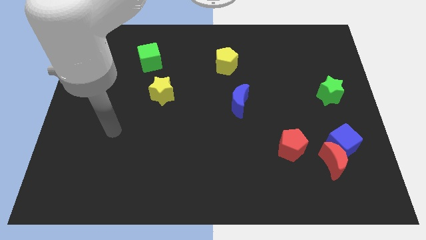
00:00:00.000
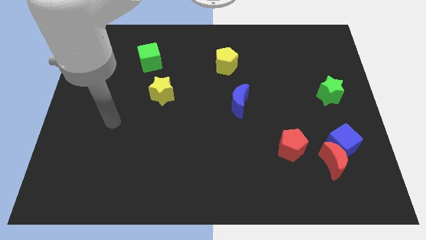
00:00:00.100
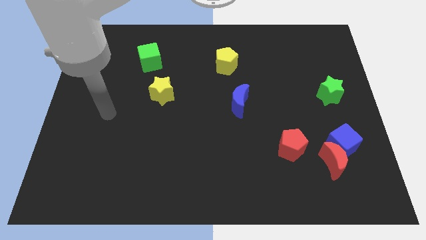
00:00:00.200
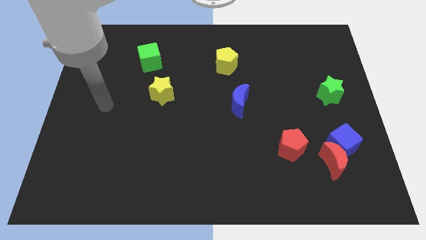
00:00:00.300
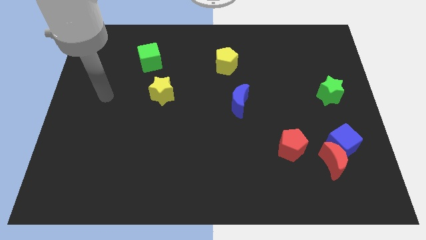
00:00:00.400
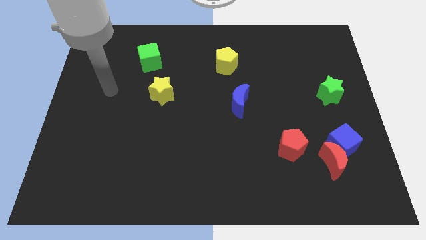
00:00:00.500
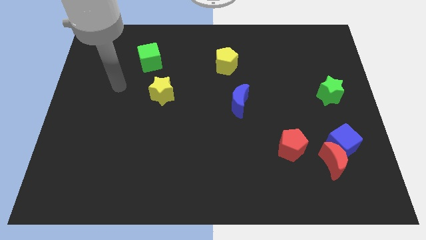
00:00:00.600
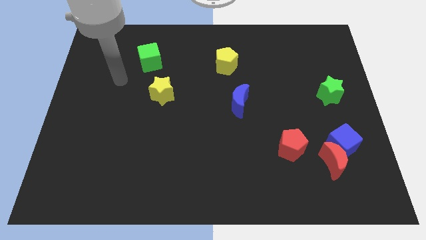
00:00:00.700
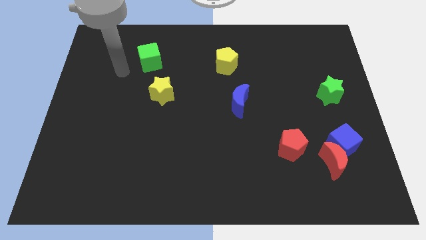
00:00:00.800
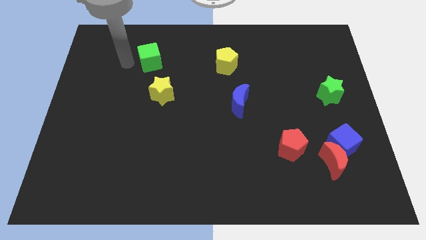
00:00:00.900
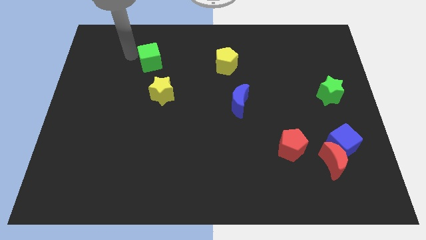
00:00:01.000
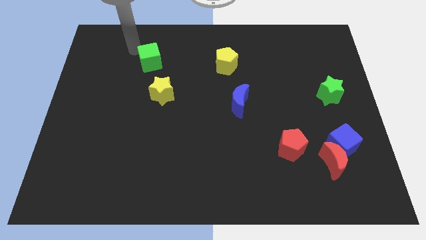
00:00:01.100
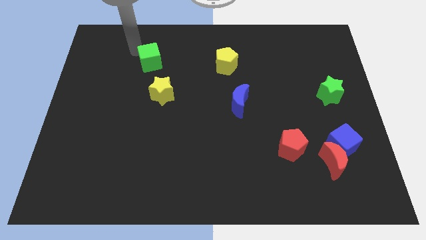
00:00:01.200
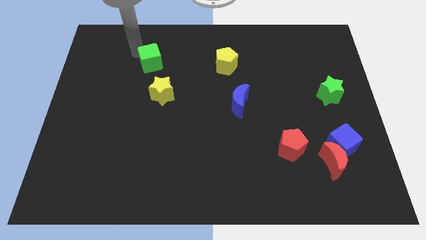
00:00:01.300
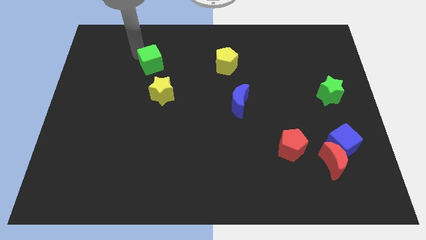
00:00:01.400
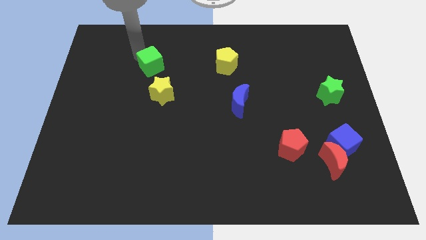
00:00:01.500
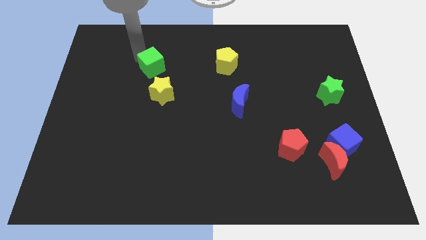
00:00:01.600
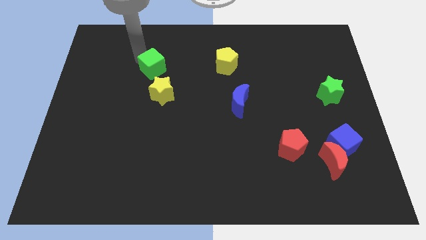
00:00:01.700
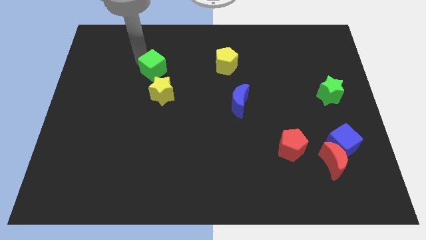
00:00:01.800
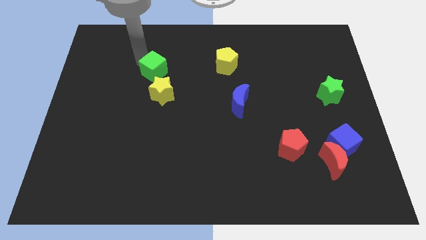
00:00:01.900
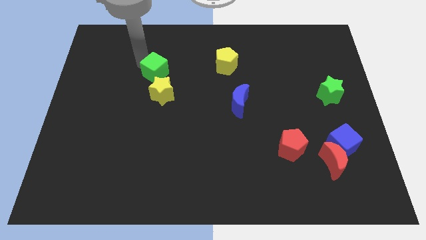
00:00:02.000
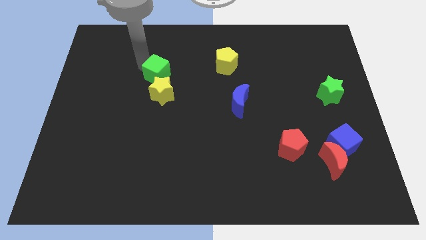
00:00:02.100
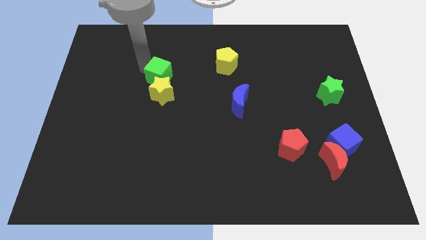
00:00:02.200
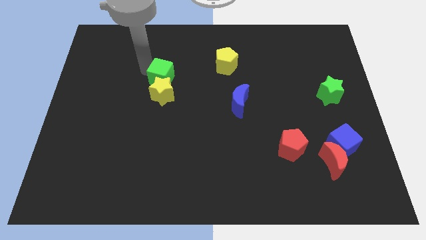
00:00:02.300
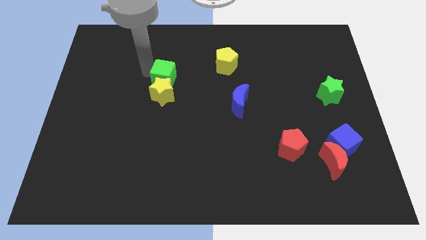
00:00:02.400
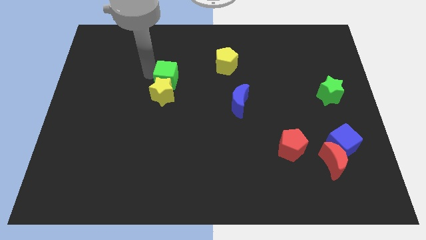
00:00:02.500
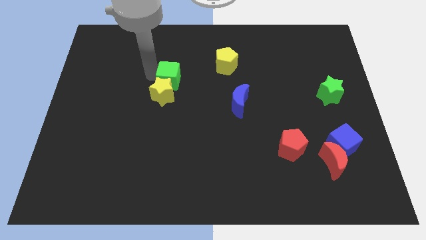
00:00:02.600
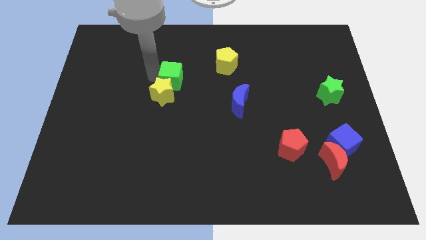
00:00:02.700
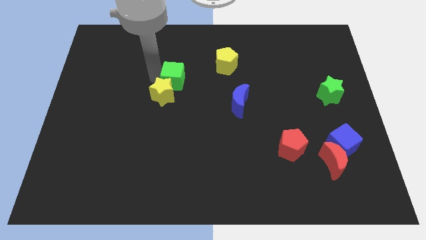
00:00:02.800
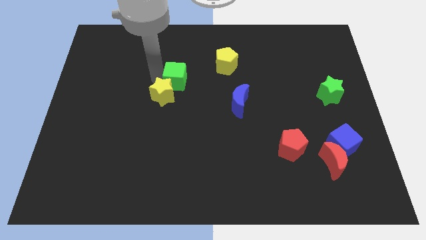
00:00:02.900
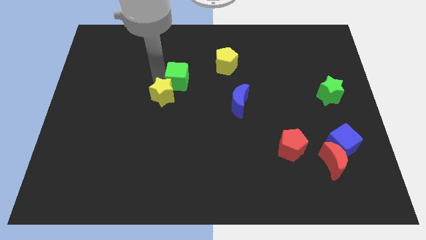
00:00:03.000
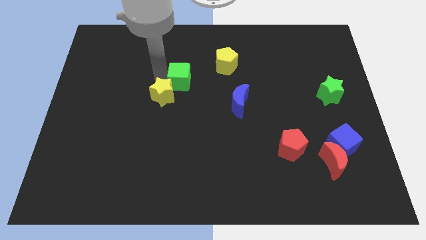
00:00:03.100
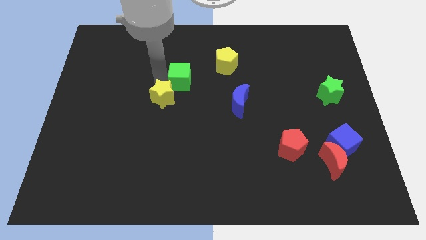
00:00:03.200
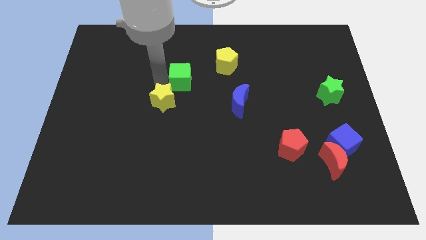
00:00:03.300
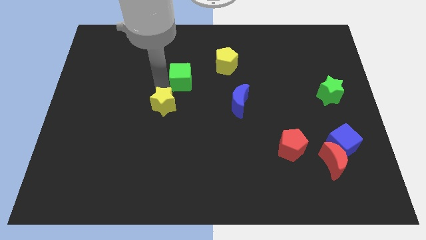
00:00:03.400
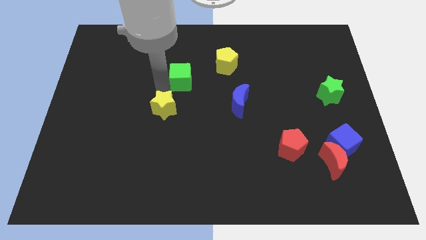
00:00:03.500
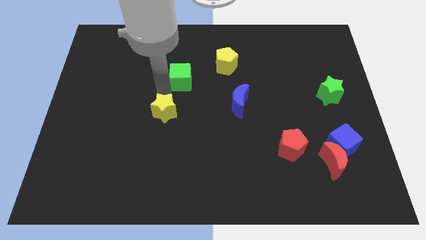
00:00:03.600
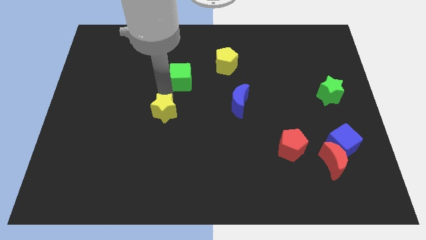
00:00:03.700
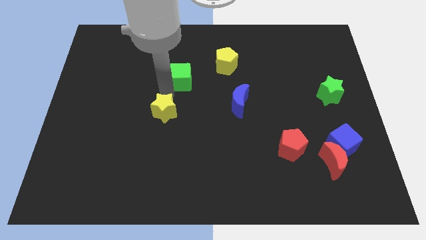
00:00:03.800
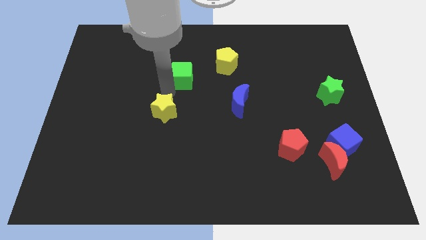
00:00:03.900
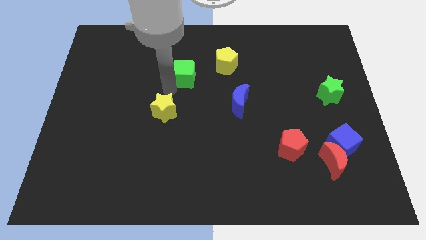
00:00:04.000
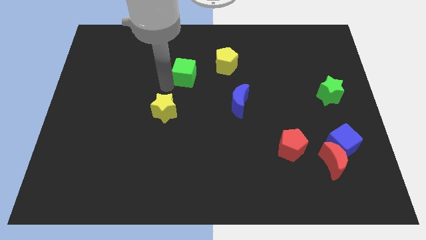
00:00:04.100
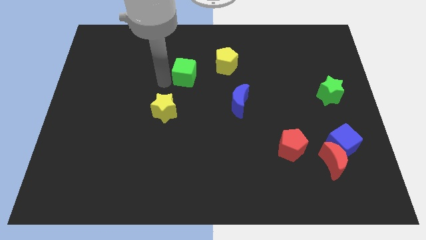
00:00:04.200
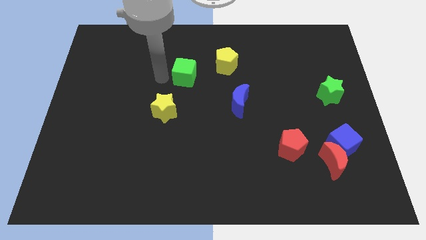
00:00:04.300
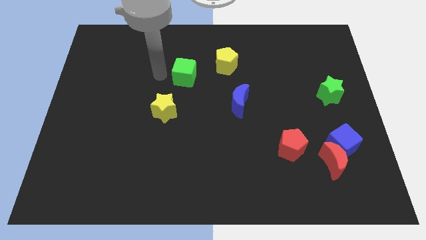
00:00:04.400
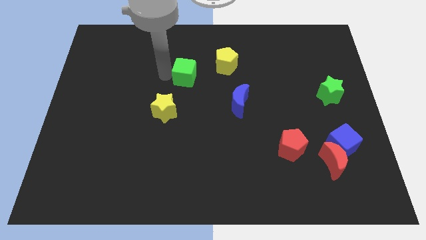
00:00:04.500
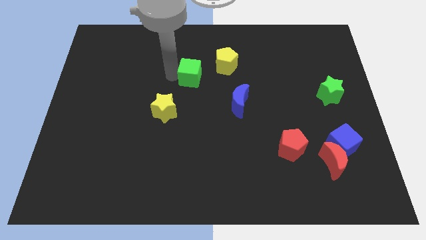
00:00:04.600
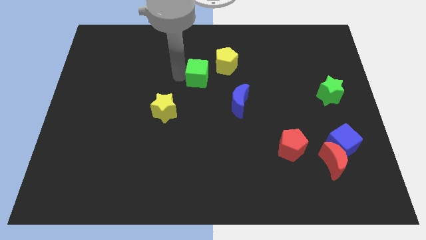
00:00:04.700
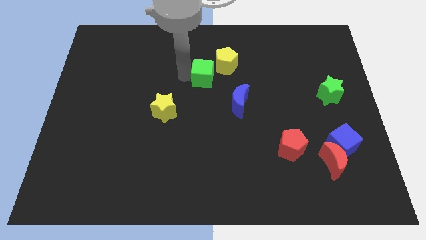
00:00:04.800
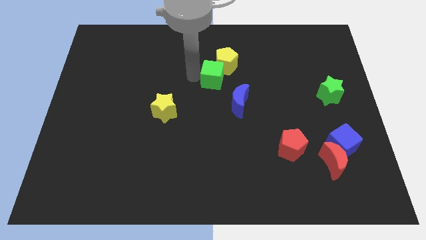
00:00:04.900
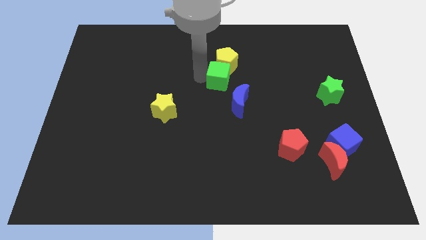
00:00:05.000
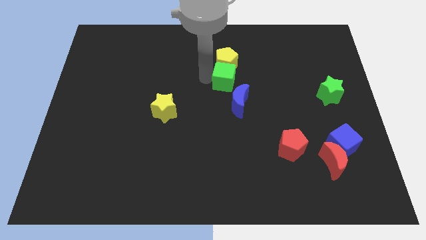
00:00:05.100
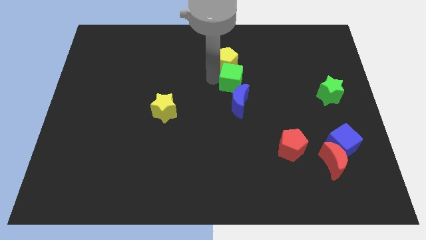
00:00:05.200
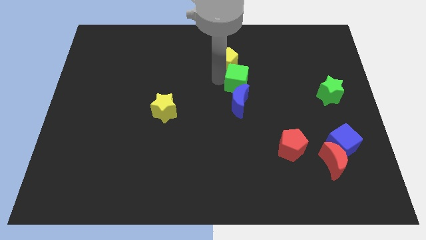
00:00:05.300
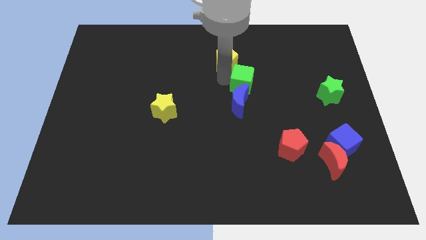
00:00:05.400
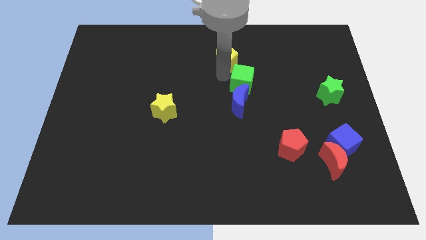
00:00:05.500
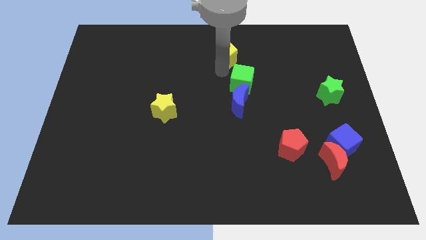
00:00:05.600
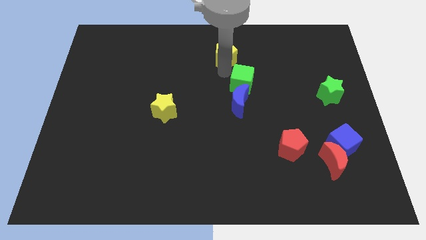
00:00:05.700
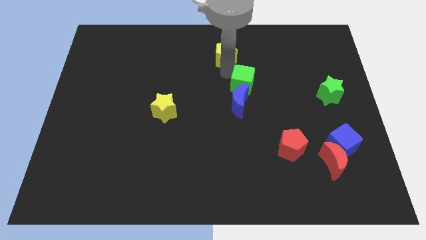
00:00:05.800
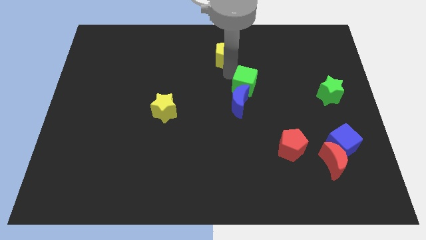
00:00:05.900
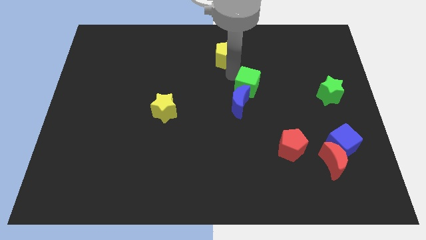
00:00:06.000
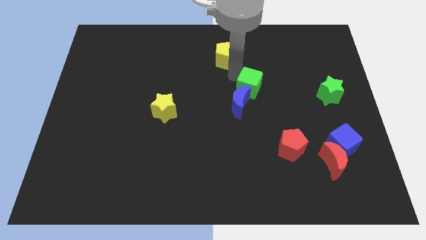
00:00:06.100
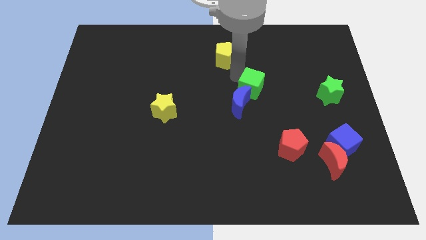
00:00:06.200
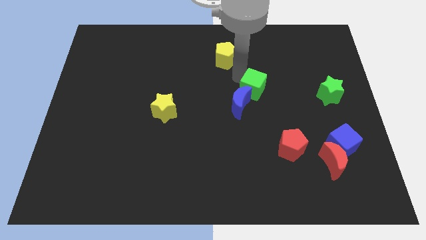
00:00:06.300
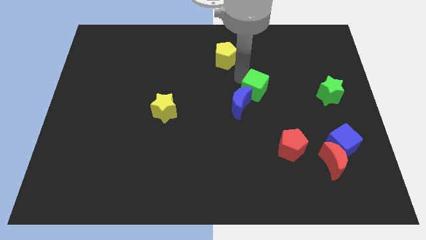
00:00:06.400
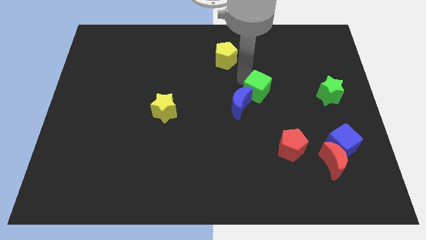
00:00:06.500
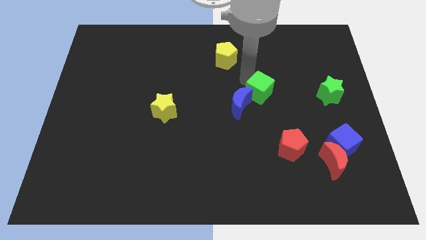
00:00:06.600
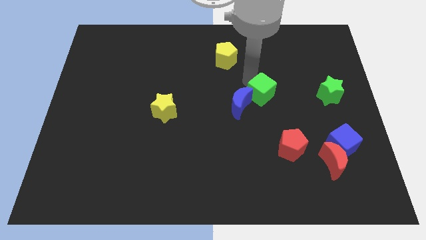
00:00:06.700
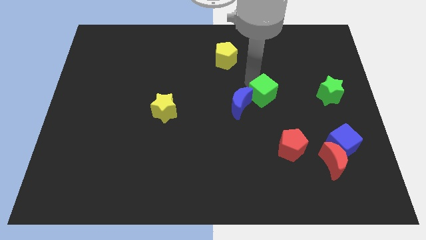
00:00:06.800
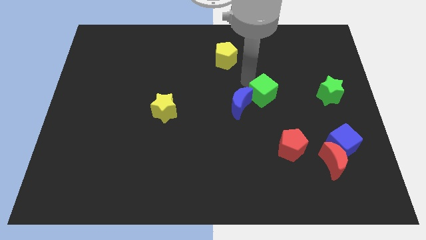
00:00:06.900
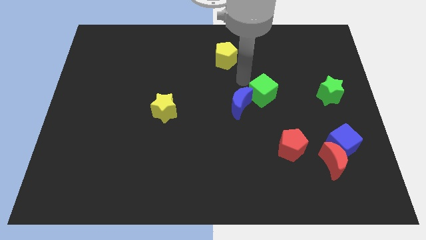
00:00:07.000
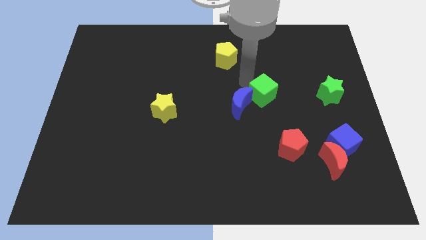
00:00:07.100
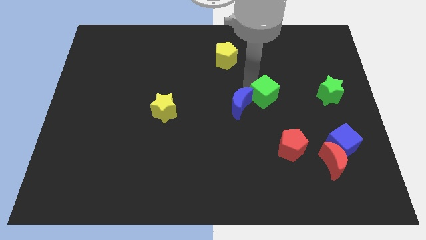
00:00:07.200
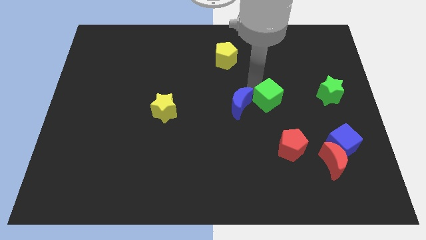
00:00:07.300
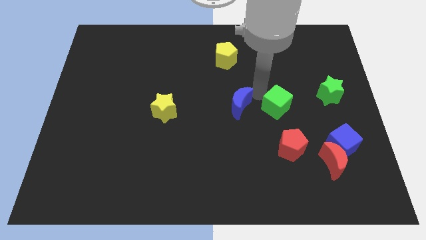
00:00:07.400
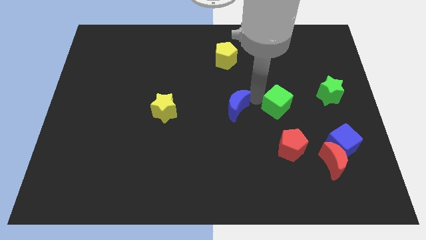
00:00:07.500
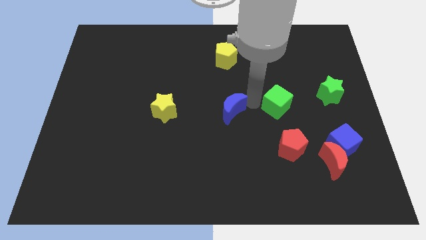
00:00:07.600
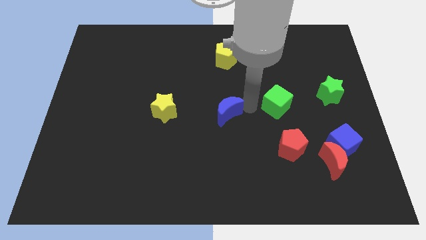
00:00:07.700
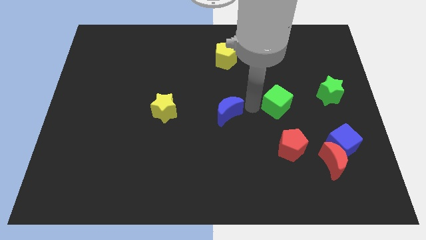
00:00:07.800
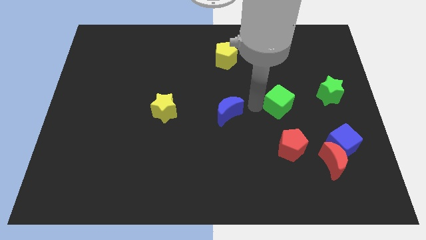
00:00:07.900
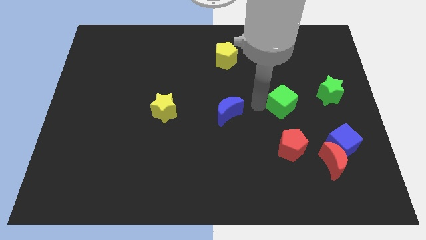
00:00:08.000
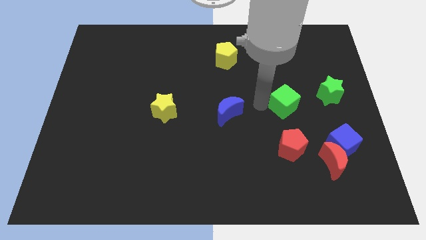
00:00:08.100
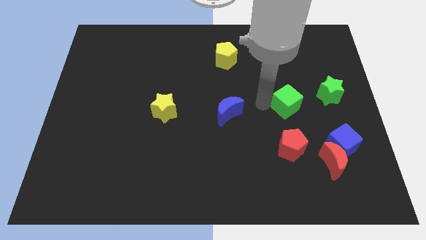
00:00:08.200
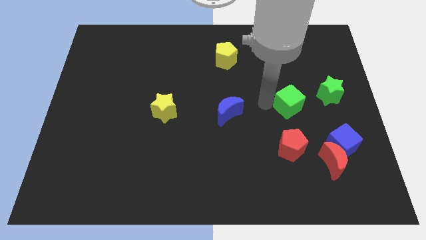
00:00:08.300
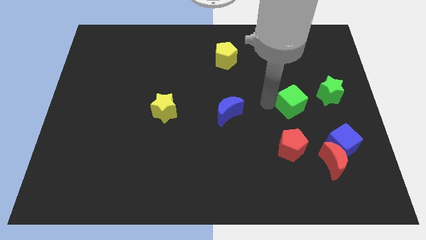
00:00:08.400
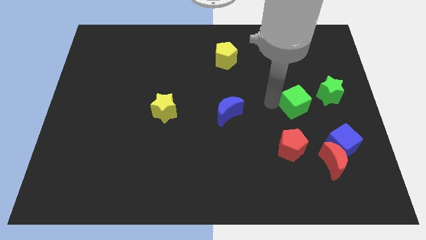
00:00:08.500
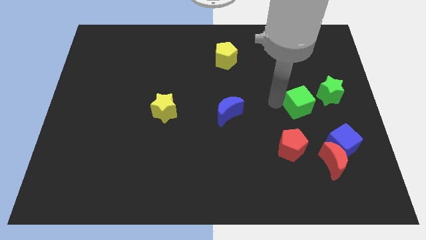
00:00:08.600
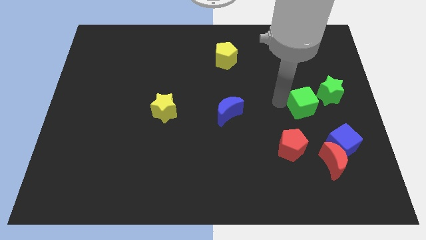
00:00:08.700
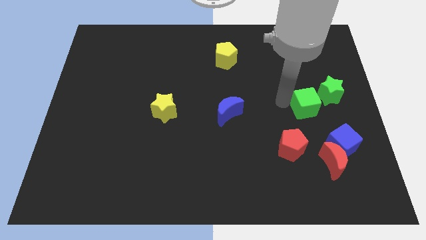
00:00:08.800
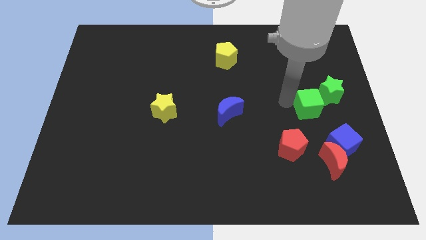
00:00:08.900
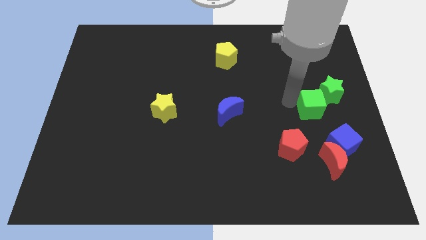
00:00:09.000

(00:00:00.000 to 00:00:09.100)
push the green cube to the top side of the blue cube
